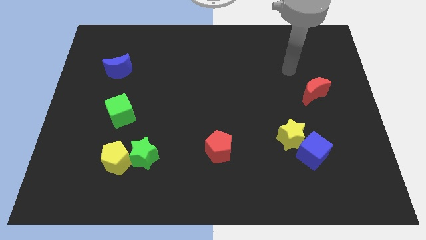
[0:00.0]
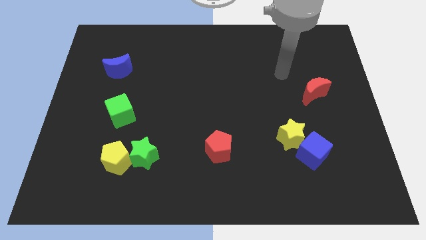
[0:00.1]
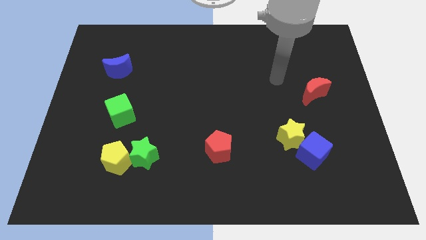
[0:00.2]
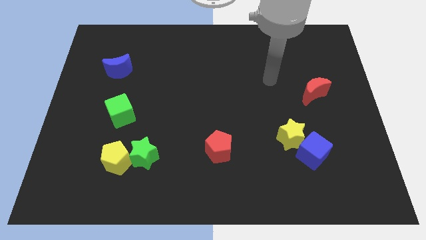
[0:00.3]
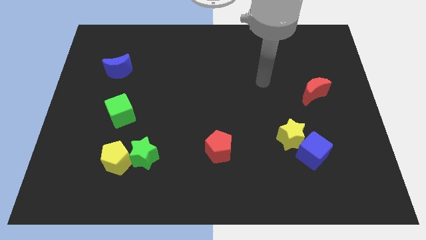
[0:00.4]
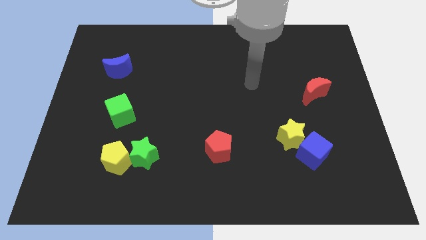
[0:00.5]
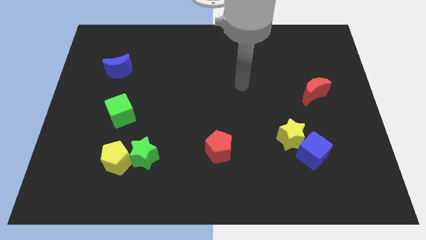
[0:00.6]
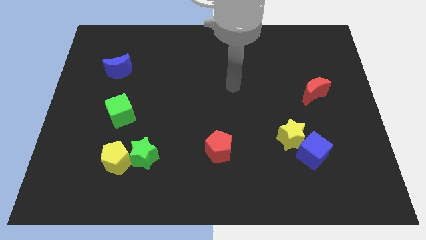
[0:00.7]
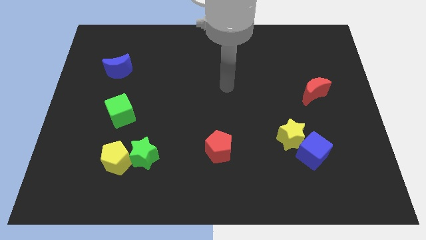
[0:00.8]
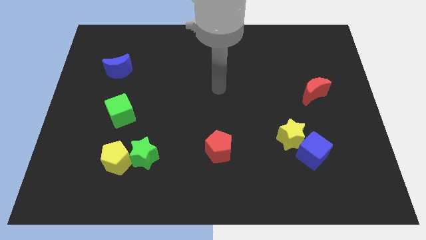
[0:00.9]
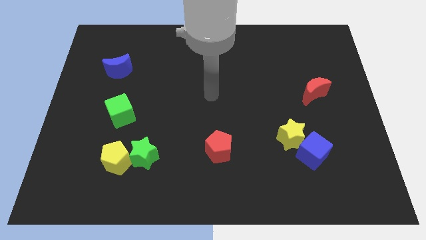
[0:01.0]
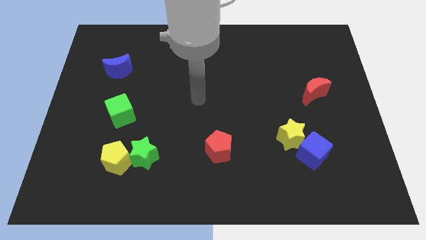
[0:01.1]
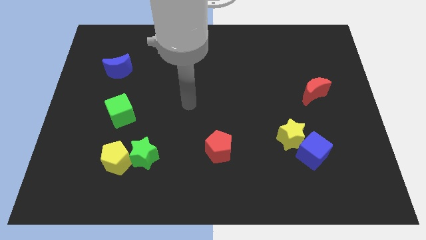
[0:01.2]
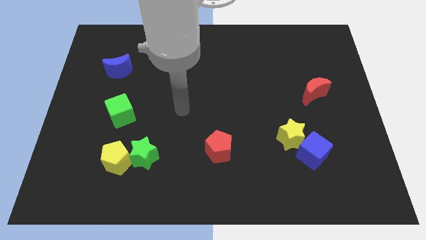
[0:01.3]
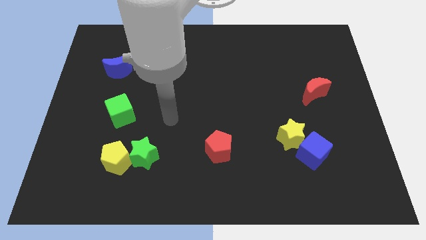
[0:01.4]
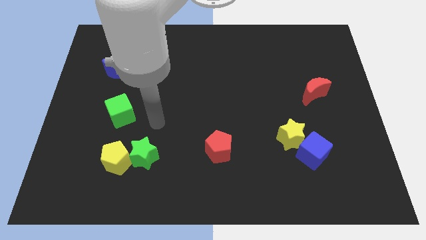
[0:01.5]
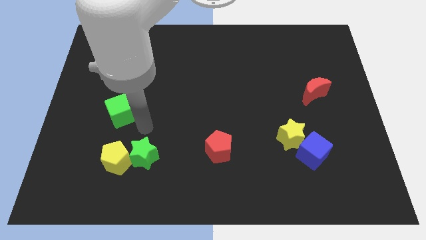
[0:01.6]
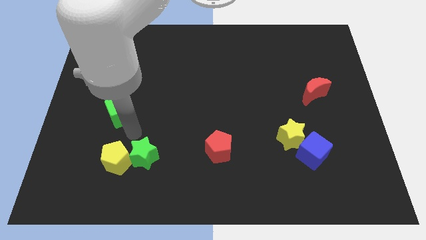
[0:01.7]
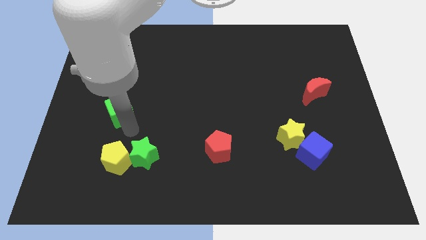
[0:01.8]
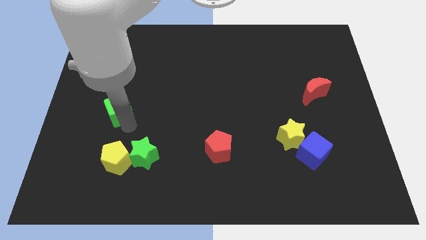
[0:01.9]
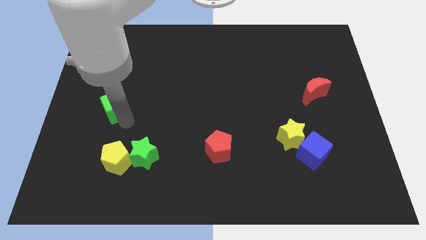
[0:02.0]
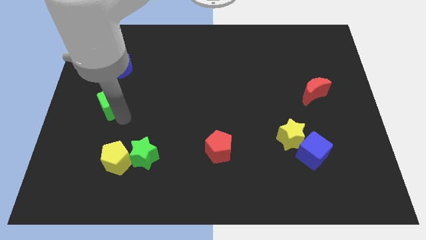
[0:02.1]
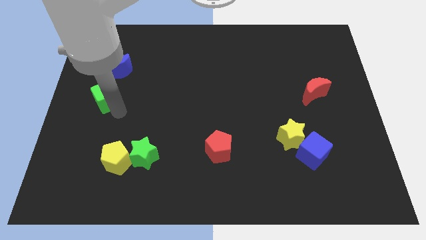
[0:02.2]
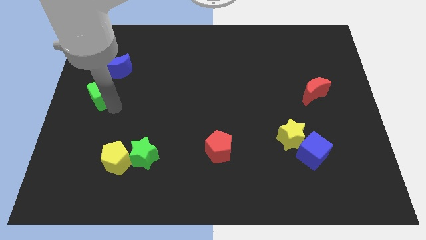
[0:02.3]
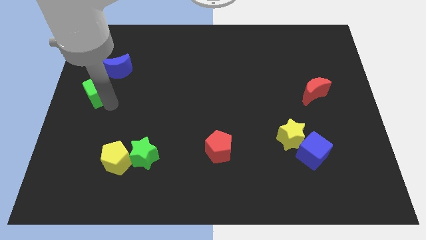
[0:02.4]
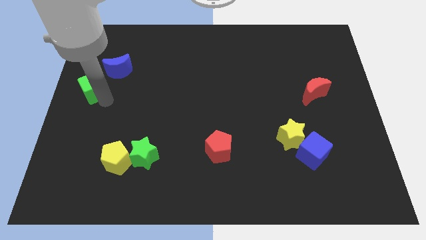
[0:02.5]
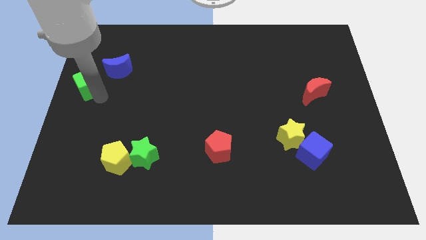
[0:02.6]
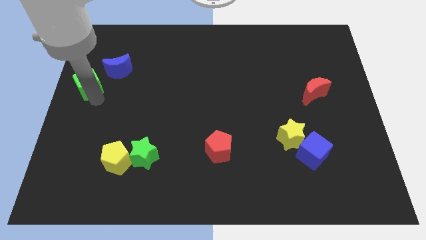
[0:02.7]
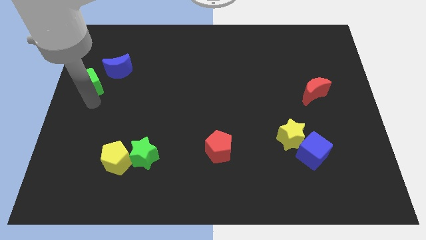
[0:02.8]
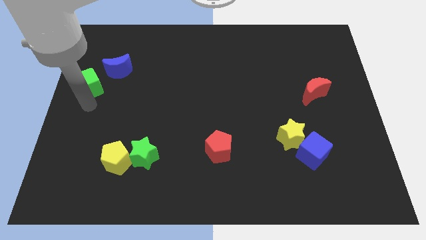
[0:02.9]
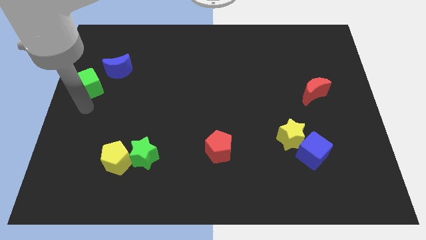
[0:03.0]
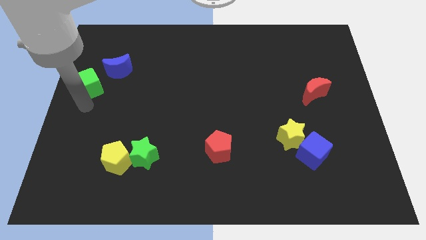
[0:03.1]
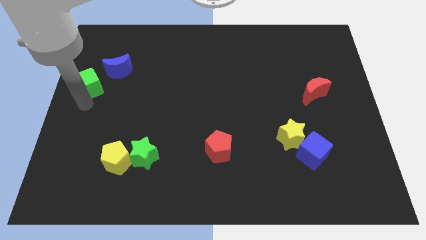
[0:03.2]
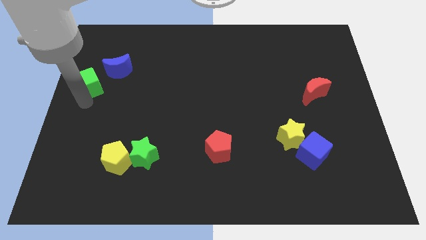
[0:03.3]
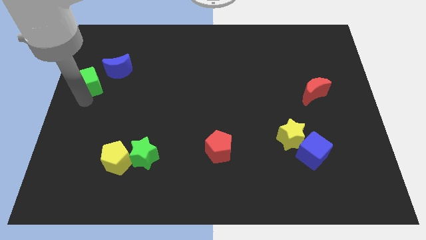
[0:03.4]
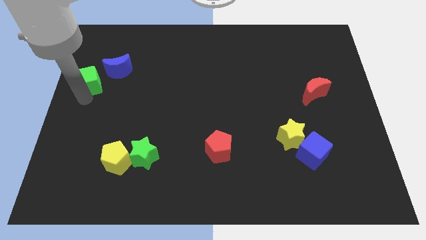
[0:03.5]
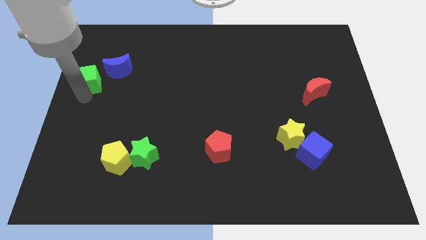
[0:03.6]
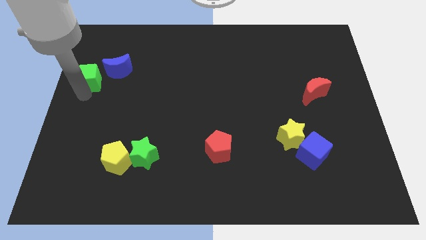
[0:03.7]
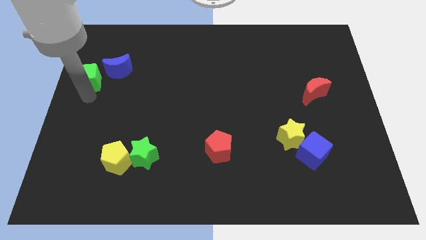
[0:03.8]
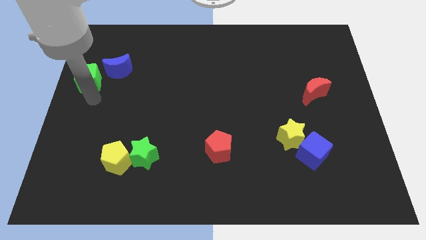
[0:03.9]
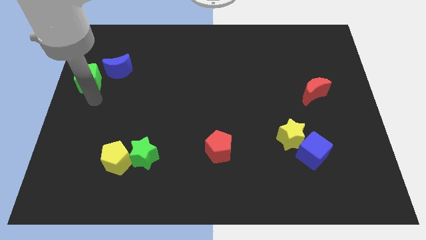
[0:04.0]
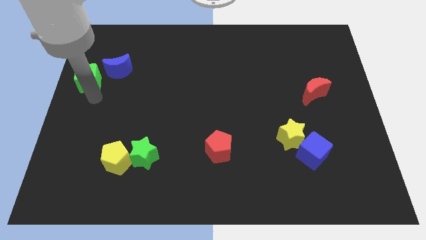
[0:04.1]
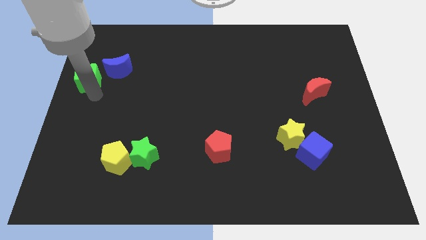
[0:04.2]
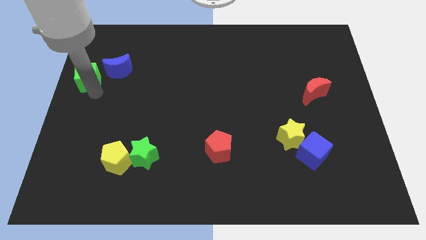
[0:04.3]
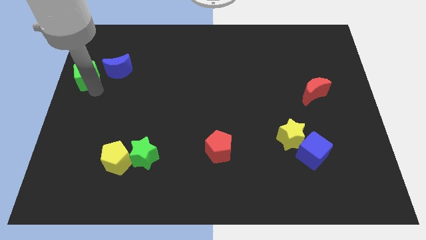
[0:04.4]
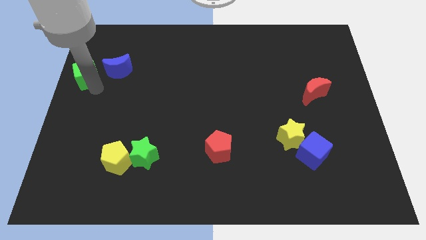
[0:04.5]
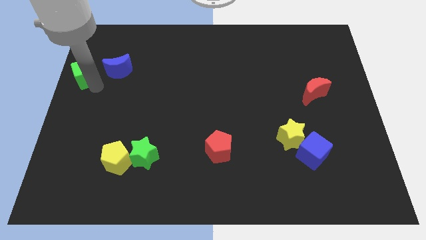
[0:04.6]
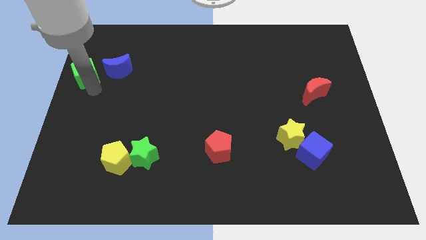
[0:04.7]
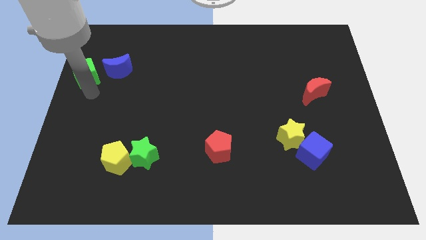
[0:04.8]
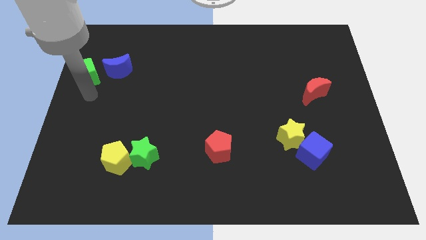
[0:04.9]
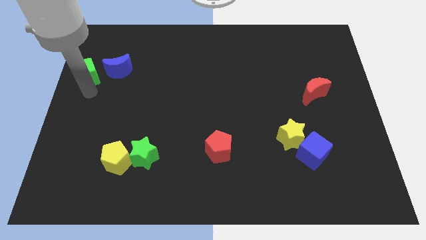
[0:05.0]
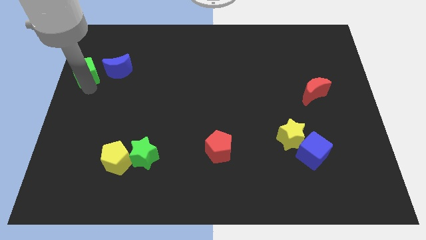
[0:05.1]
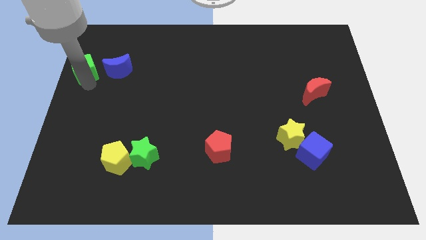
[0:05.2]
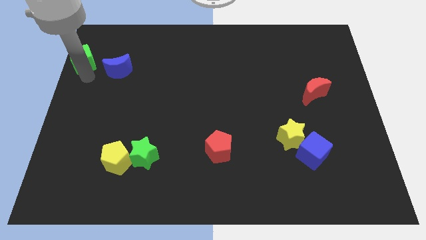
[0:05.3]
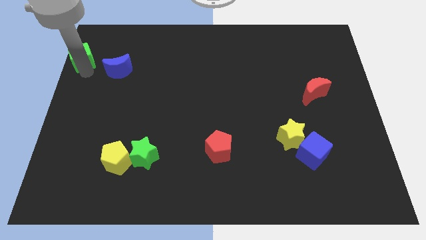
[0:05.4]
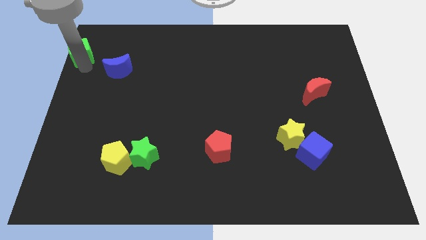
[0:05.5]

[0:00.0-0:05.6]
move the green cube to the top left corner

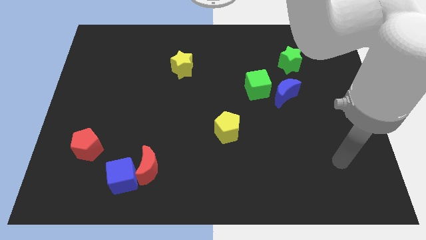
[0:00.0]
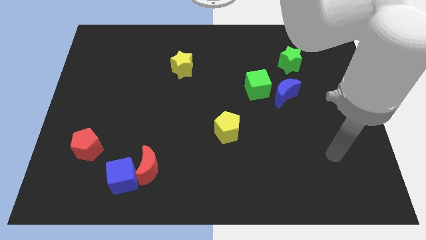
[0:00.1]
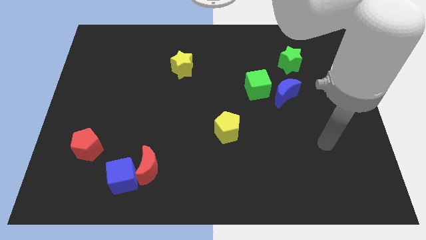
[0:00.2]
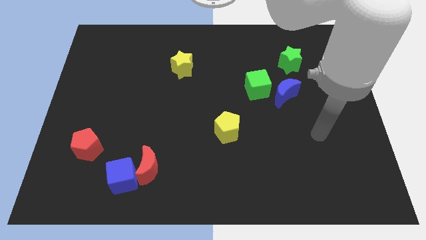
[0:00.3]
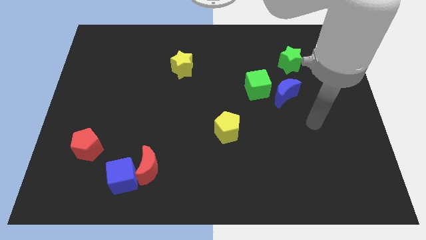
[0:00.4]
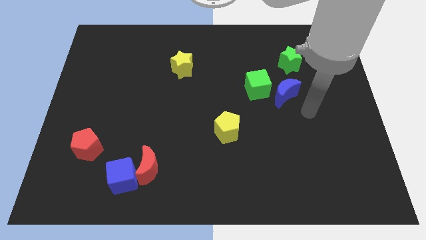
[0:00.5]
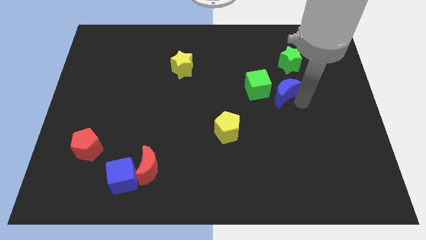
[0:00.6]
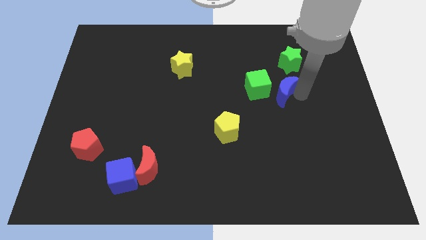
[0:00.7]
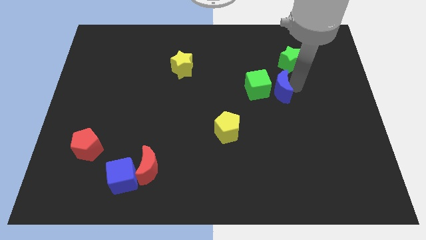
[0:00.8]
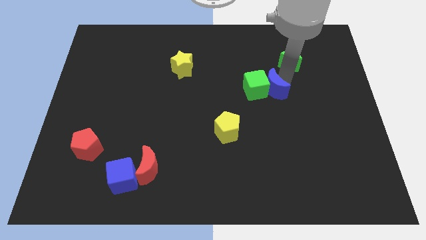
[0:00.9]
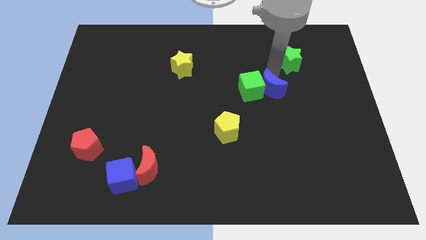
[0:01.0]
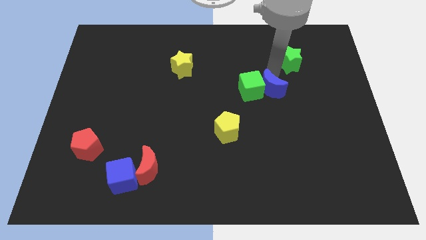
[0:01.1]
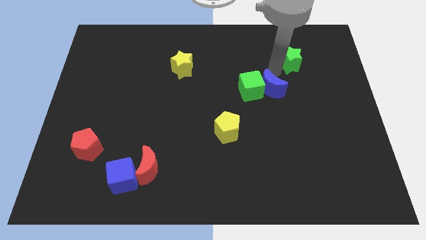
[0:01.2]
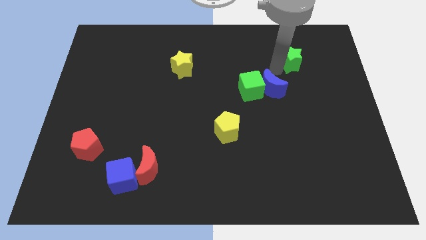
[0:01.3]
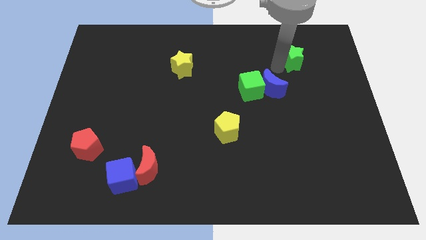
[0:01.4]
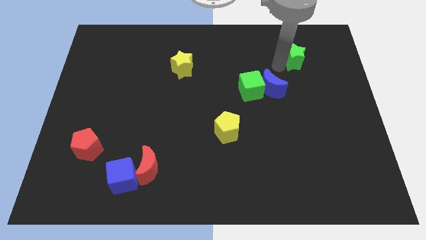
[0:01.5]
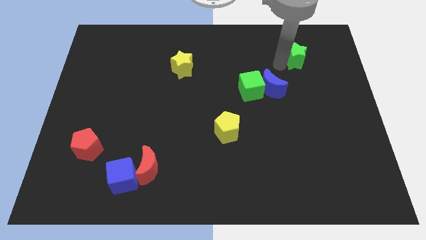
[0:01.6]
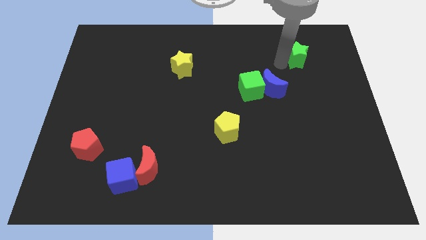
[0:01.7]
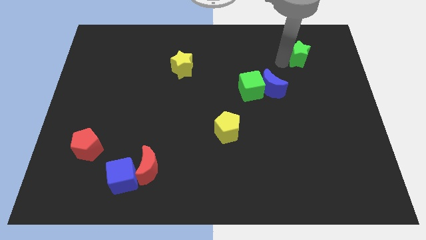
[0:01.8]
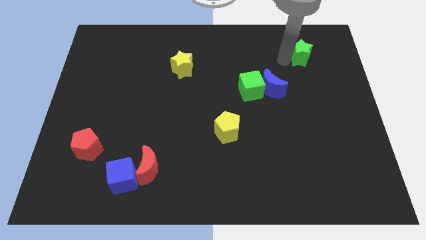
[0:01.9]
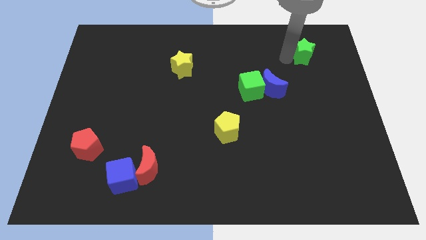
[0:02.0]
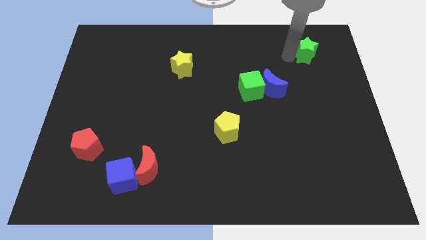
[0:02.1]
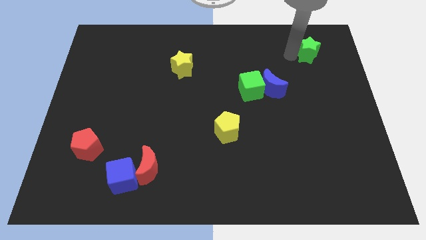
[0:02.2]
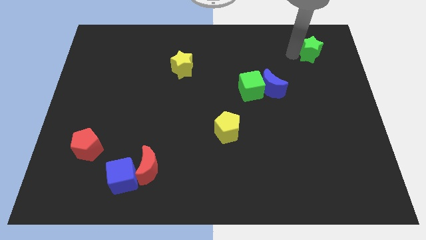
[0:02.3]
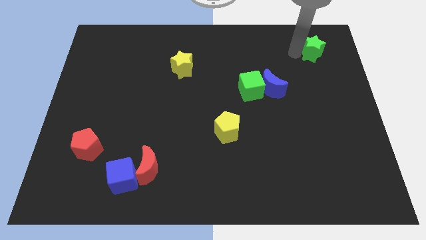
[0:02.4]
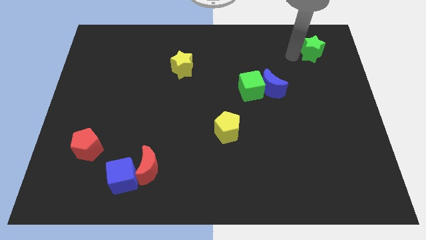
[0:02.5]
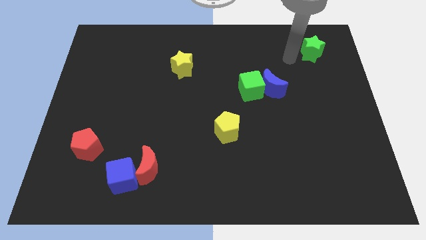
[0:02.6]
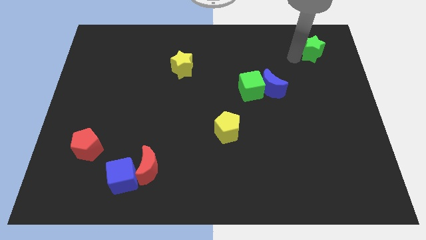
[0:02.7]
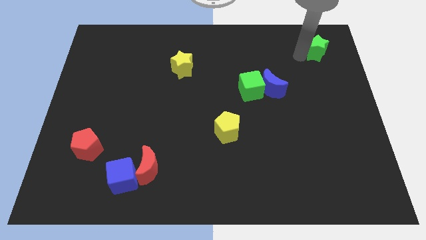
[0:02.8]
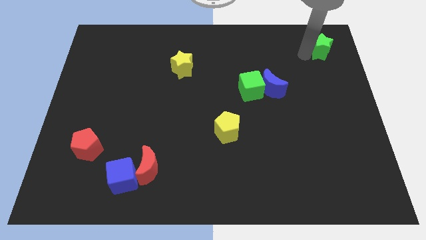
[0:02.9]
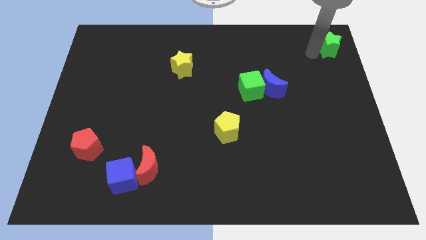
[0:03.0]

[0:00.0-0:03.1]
slide the green star to the top right corner
